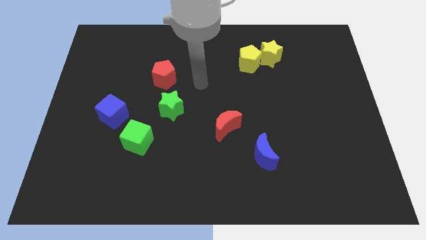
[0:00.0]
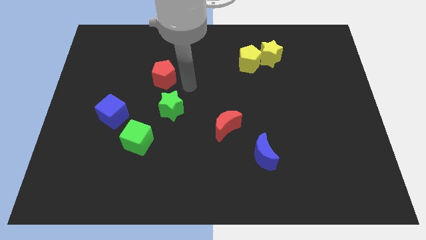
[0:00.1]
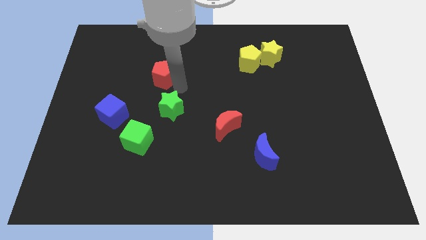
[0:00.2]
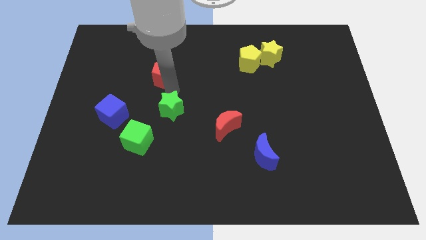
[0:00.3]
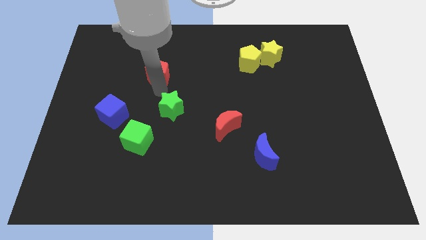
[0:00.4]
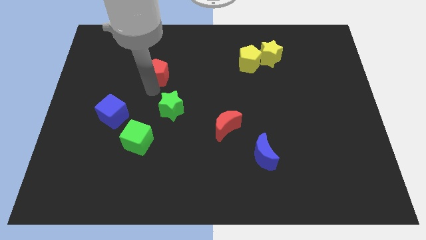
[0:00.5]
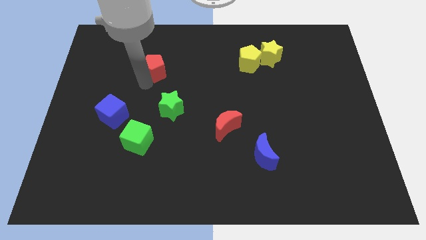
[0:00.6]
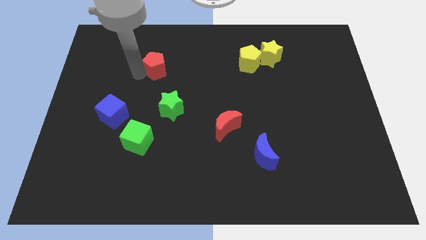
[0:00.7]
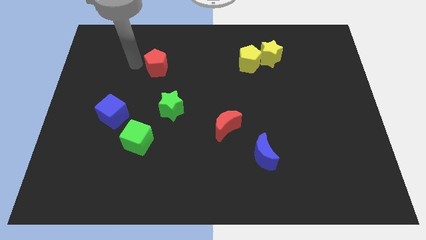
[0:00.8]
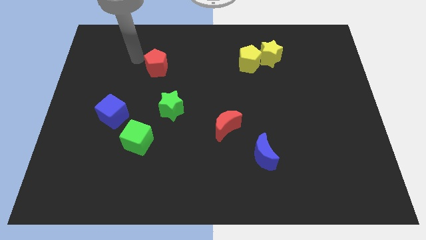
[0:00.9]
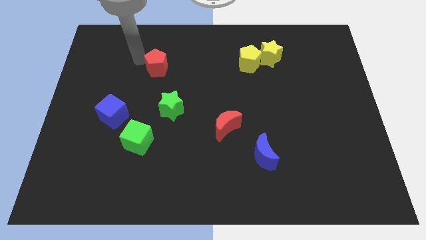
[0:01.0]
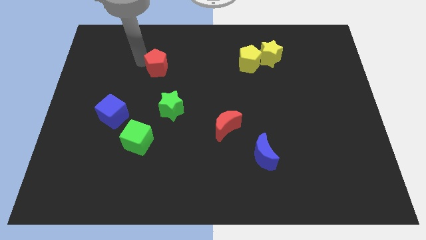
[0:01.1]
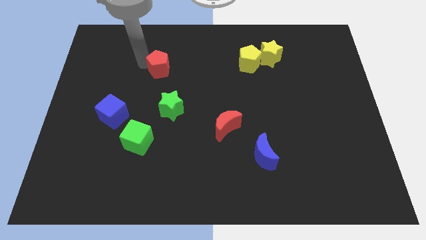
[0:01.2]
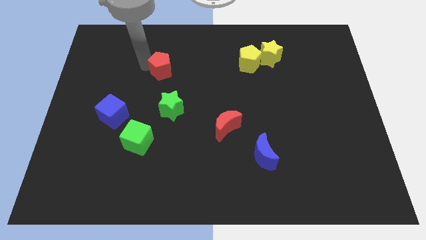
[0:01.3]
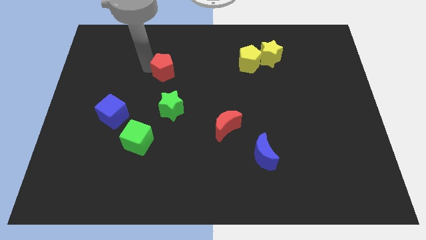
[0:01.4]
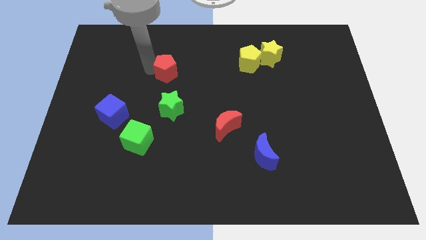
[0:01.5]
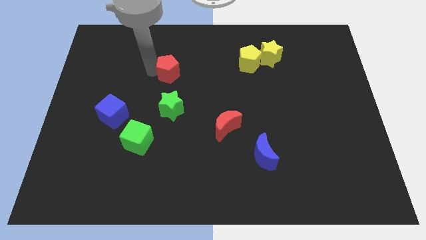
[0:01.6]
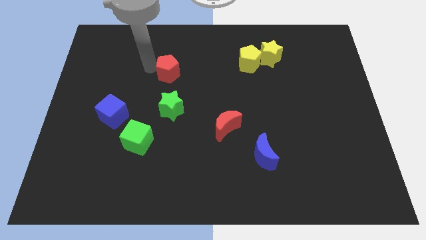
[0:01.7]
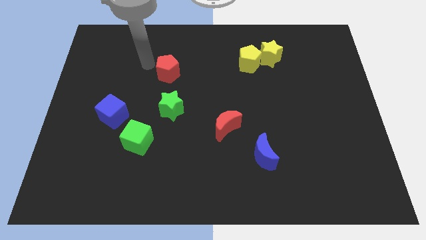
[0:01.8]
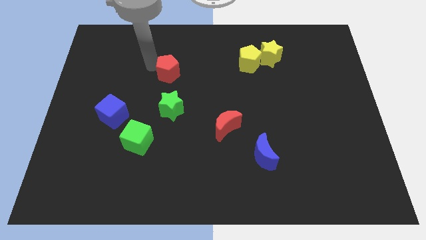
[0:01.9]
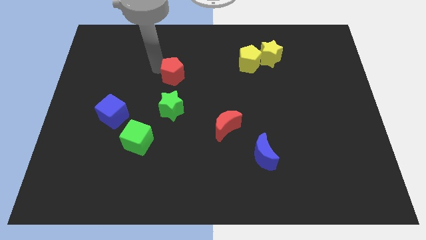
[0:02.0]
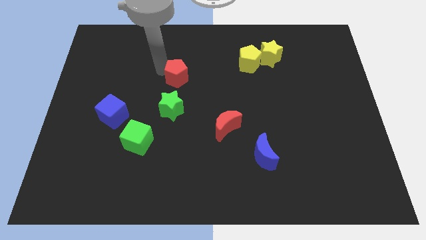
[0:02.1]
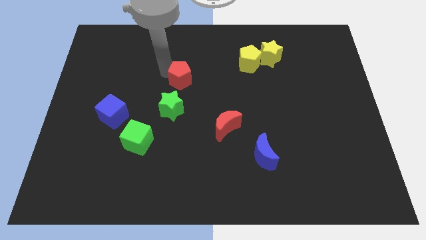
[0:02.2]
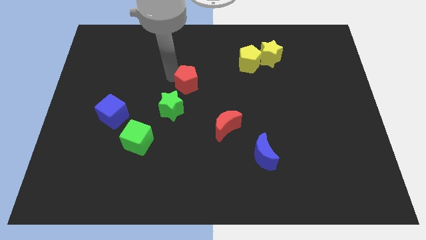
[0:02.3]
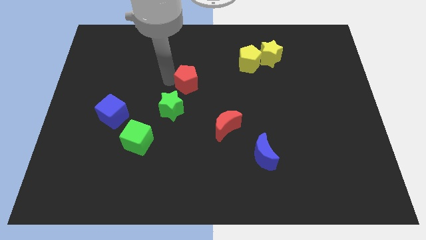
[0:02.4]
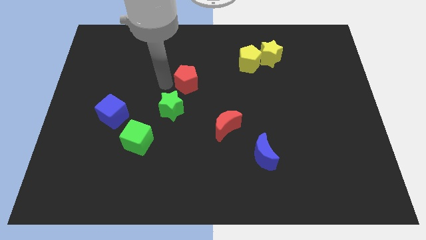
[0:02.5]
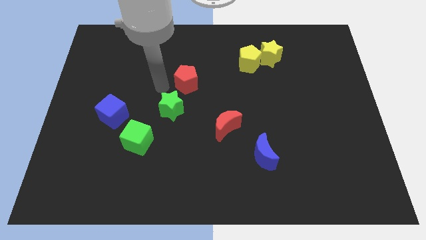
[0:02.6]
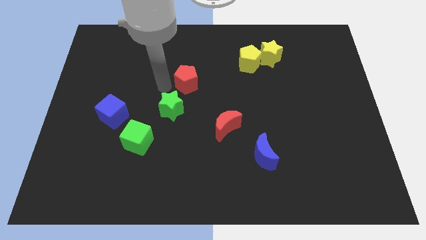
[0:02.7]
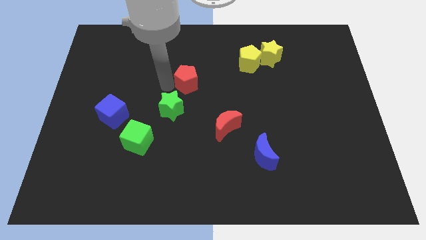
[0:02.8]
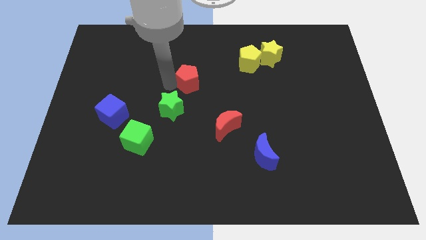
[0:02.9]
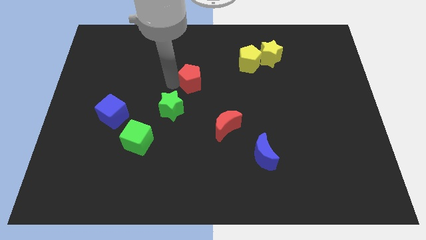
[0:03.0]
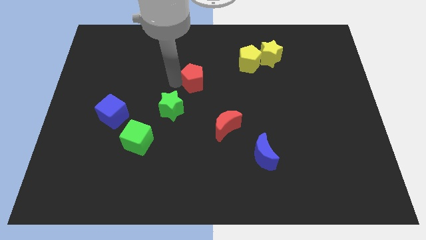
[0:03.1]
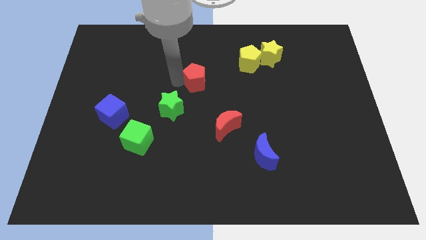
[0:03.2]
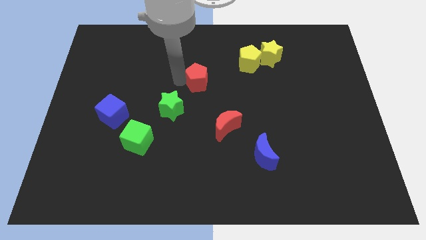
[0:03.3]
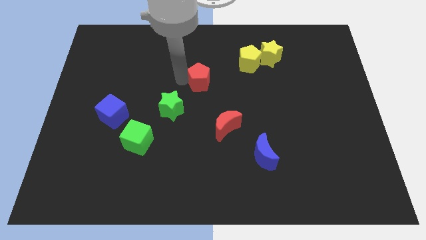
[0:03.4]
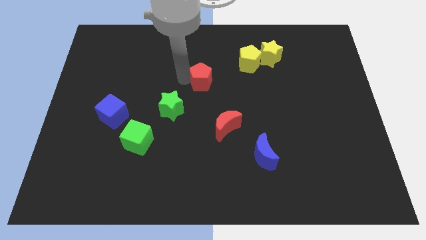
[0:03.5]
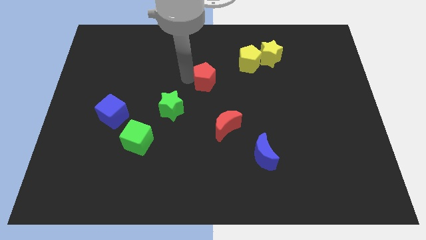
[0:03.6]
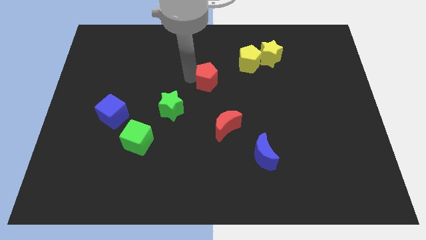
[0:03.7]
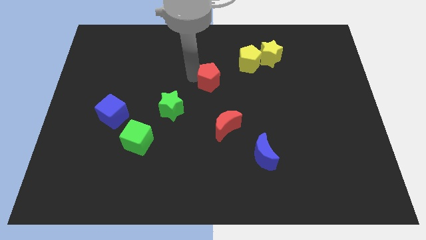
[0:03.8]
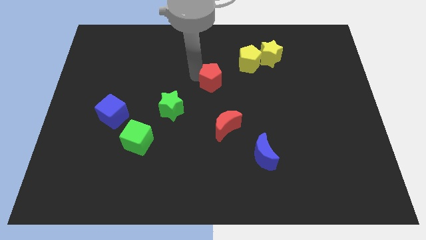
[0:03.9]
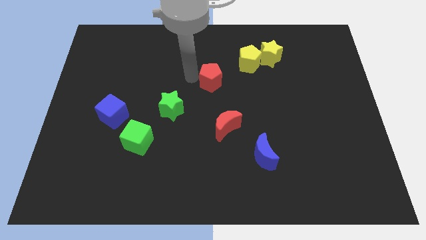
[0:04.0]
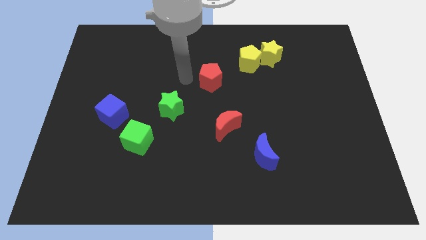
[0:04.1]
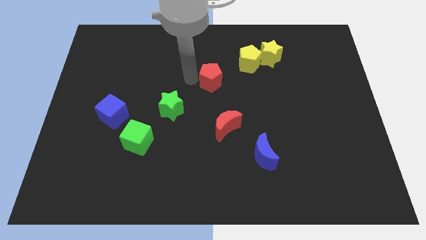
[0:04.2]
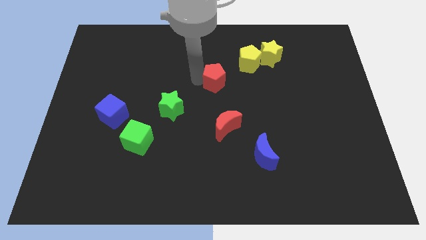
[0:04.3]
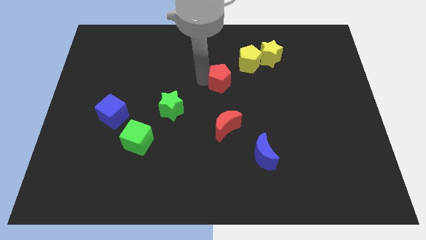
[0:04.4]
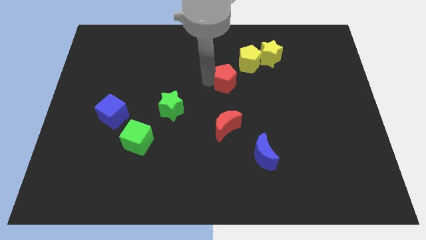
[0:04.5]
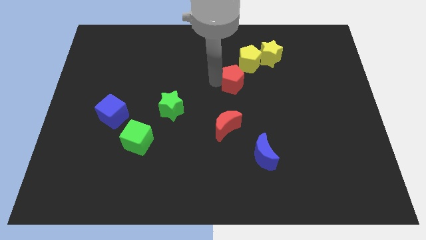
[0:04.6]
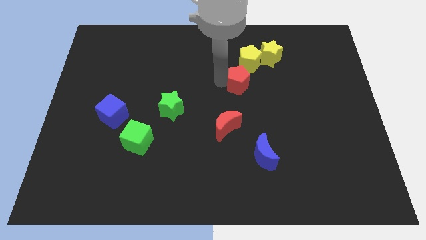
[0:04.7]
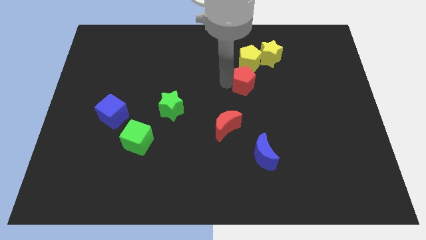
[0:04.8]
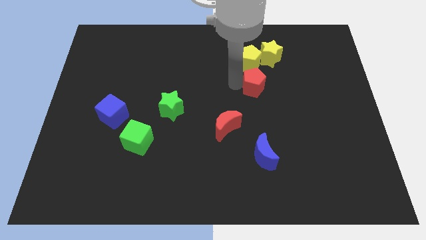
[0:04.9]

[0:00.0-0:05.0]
slide the red pentagon right

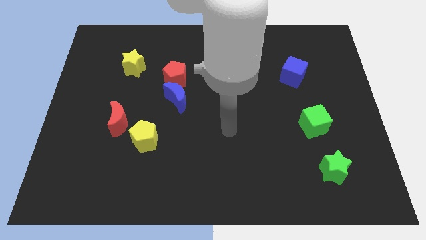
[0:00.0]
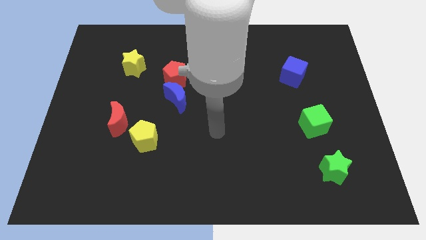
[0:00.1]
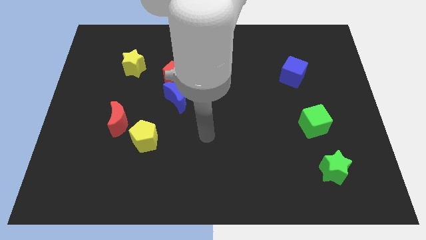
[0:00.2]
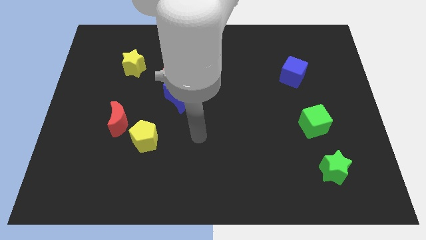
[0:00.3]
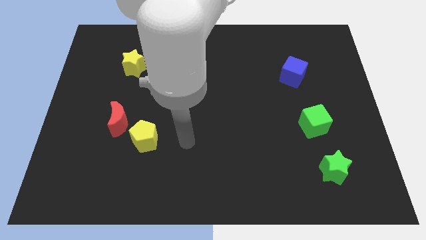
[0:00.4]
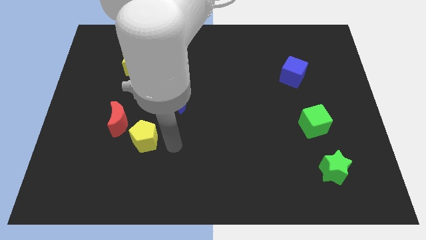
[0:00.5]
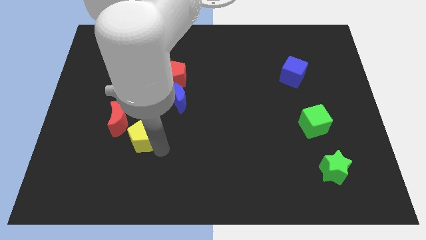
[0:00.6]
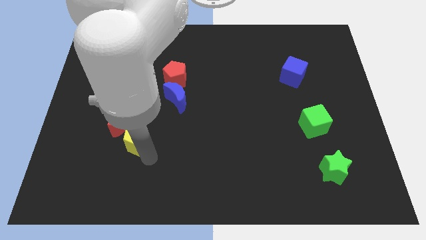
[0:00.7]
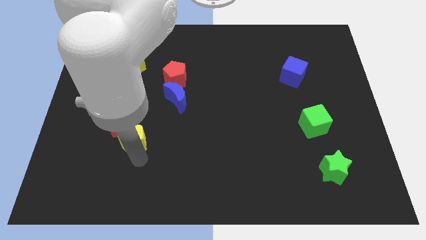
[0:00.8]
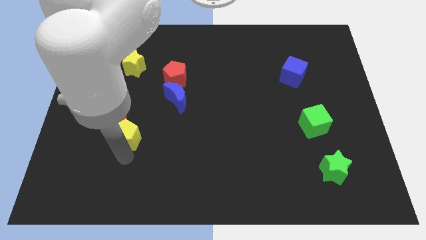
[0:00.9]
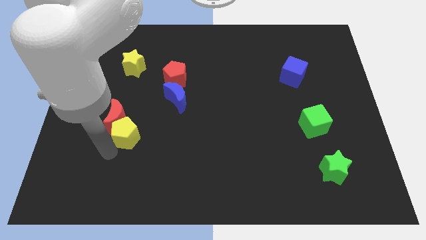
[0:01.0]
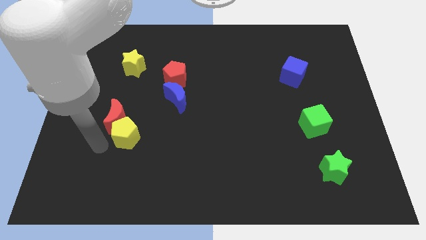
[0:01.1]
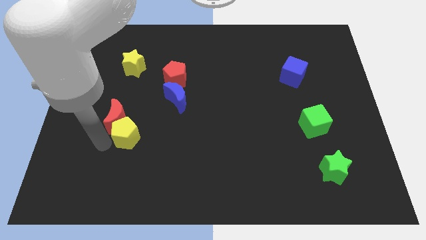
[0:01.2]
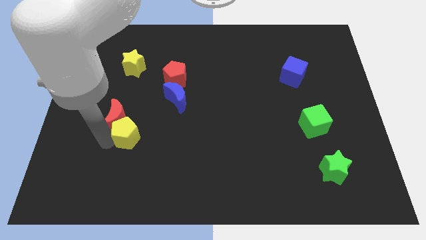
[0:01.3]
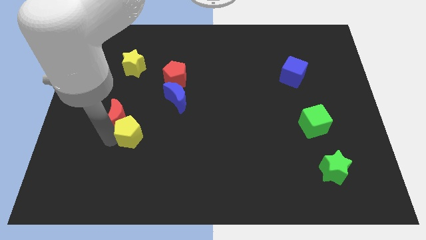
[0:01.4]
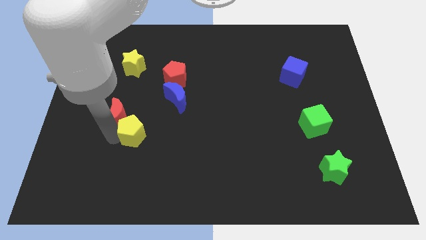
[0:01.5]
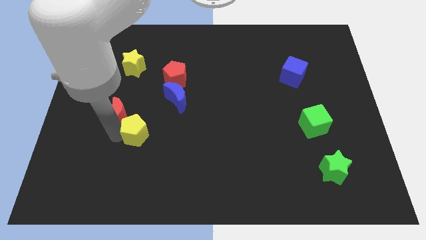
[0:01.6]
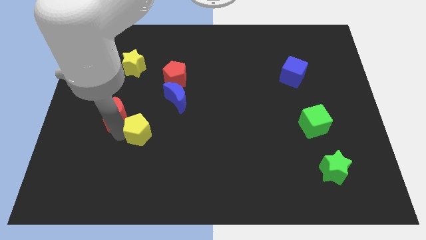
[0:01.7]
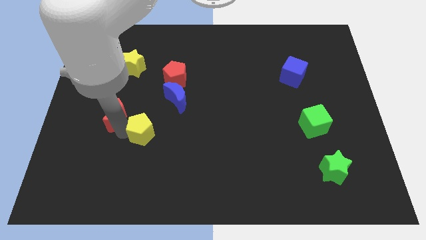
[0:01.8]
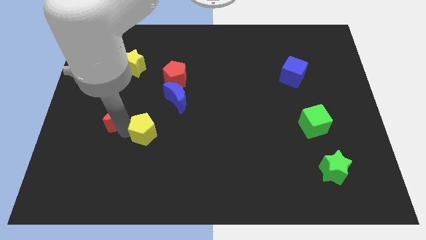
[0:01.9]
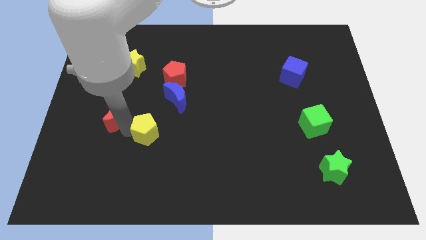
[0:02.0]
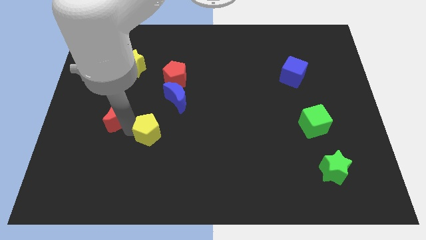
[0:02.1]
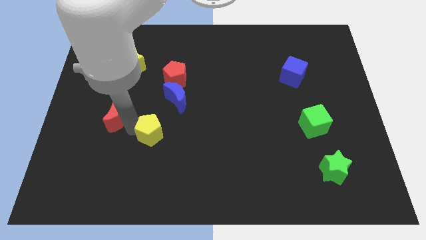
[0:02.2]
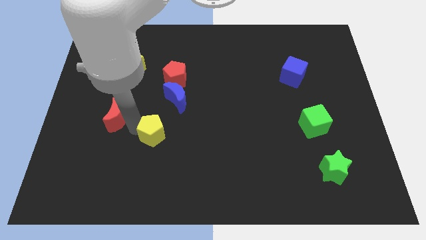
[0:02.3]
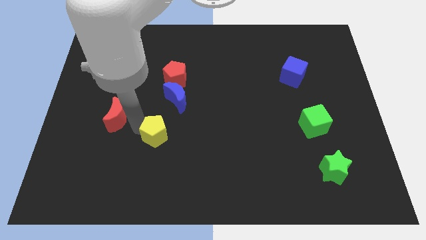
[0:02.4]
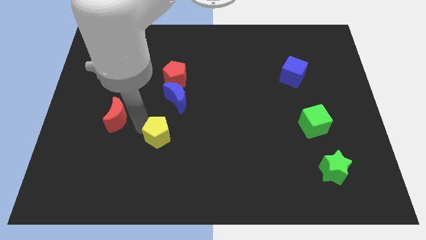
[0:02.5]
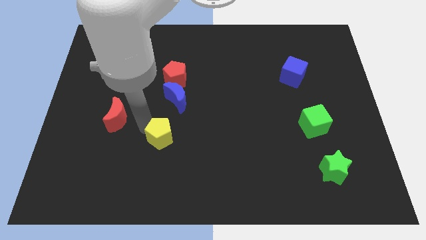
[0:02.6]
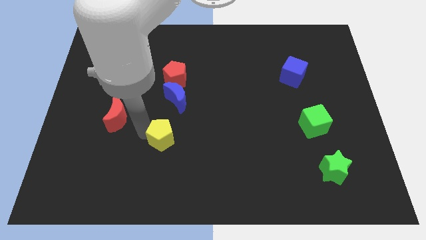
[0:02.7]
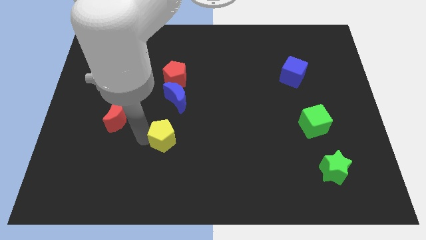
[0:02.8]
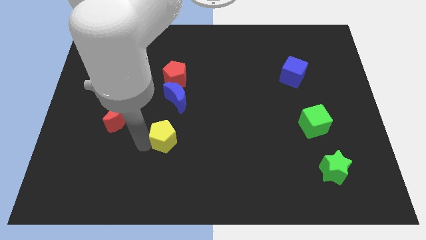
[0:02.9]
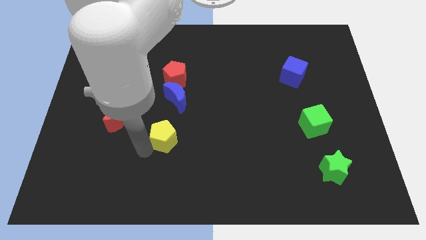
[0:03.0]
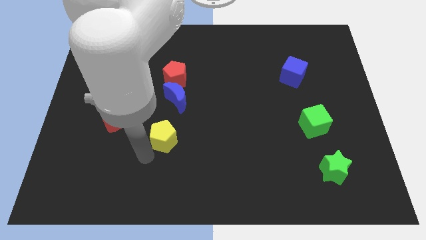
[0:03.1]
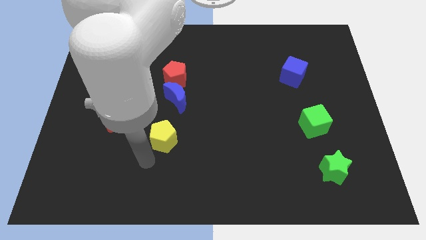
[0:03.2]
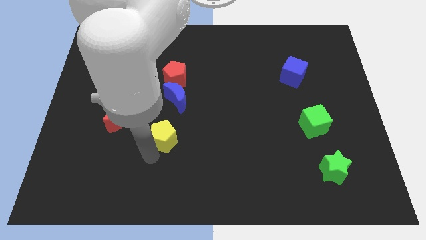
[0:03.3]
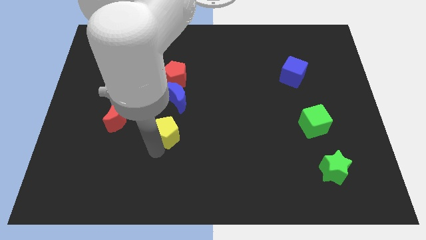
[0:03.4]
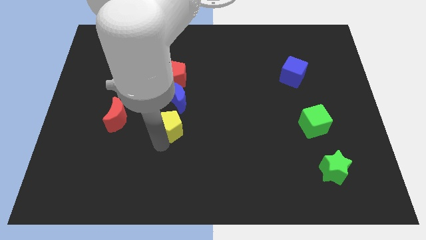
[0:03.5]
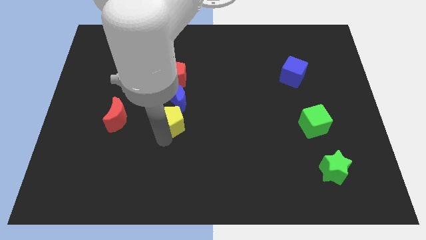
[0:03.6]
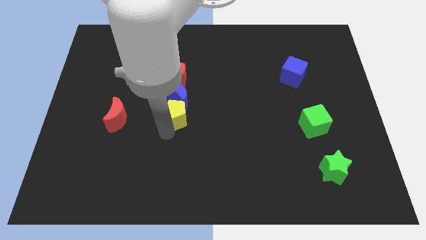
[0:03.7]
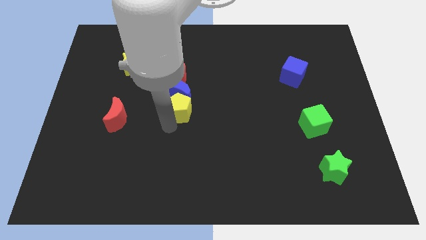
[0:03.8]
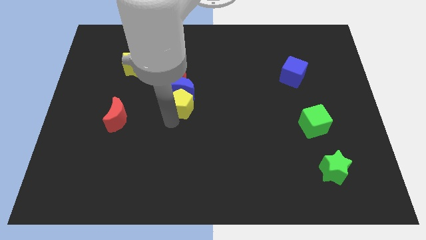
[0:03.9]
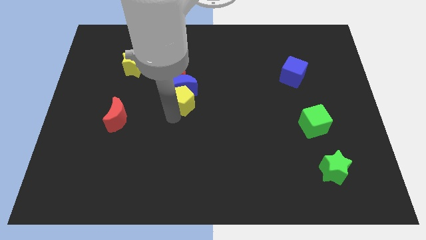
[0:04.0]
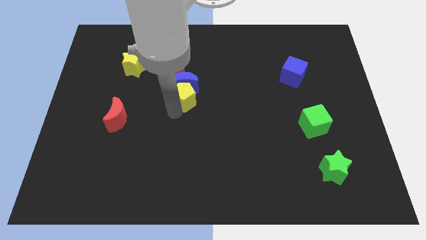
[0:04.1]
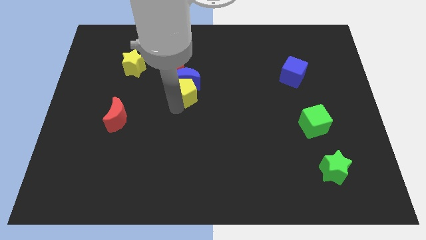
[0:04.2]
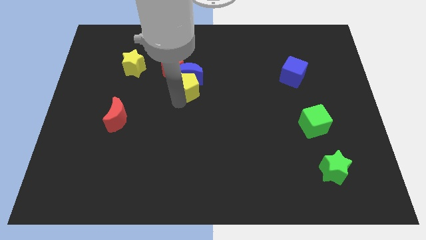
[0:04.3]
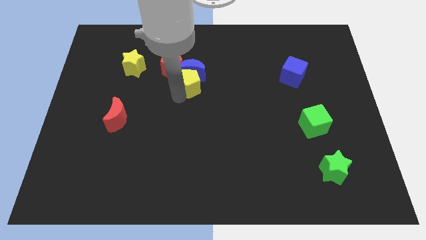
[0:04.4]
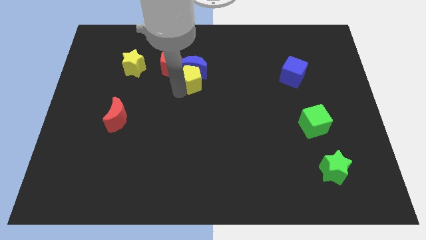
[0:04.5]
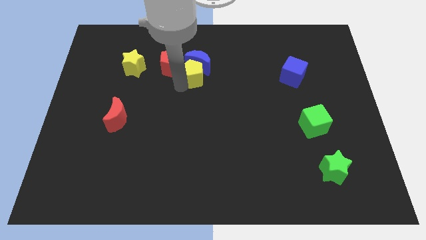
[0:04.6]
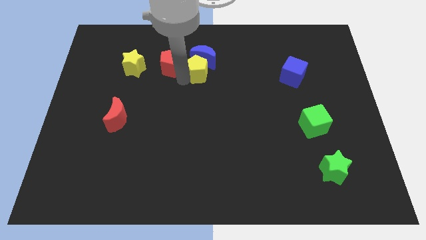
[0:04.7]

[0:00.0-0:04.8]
move the yellow pentagon up and to the right
